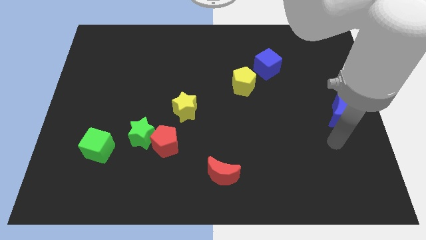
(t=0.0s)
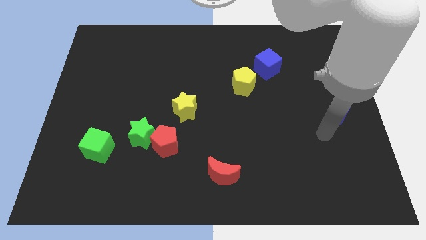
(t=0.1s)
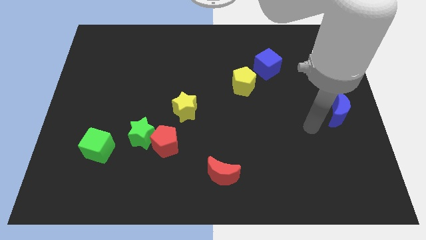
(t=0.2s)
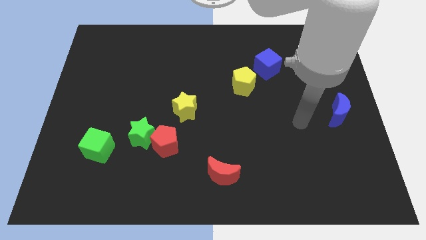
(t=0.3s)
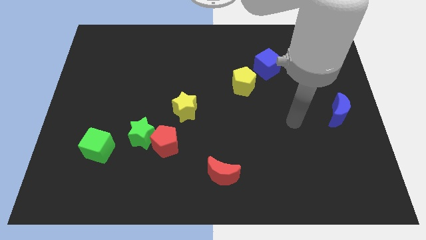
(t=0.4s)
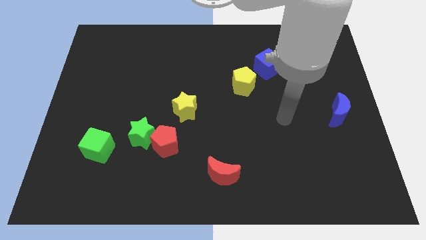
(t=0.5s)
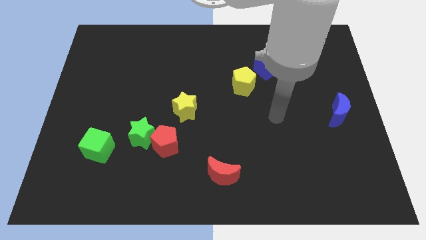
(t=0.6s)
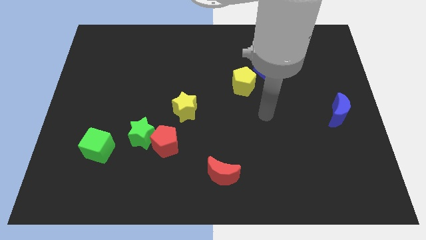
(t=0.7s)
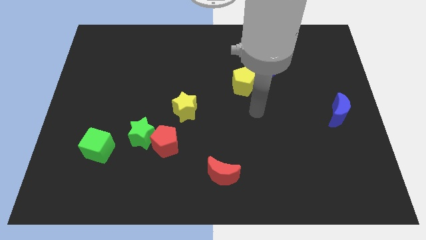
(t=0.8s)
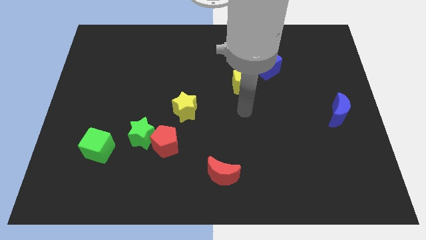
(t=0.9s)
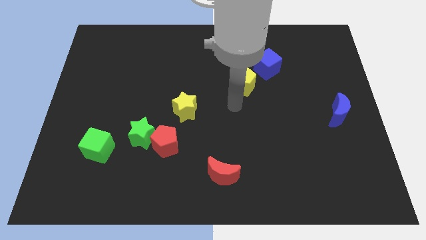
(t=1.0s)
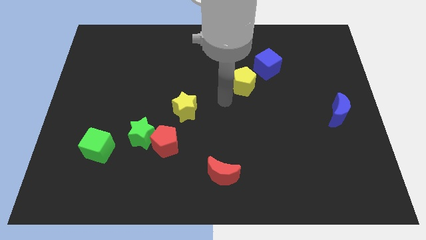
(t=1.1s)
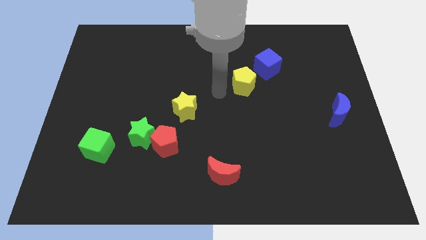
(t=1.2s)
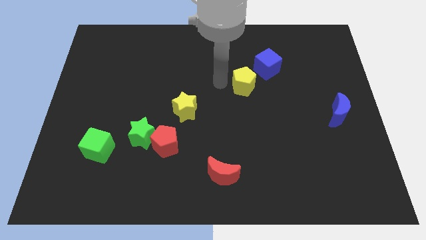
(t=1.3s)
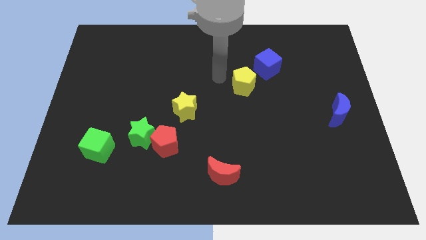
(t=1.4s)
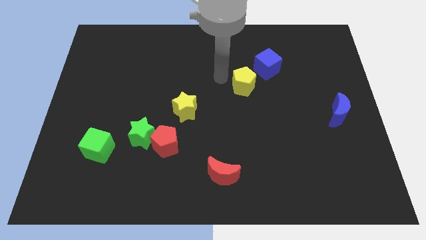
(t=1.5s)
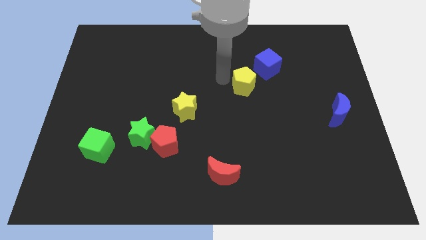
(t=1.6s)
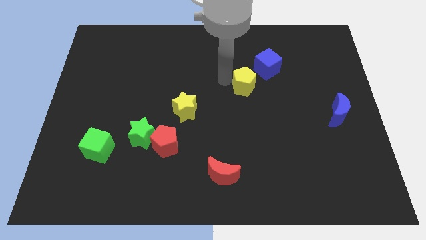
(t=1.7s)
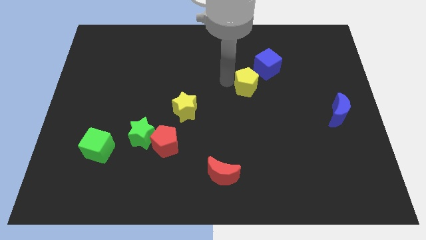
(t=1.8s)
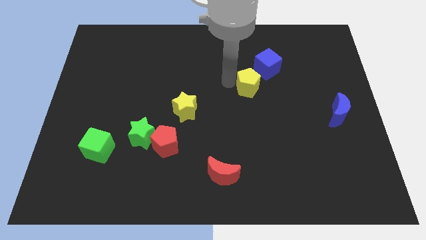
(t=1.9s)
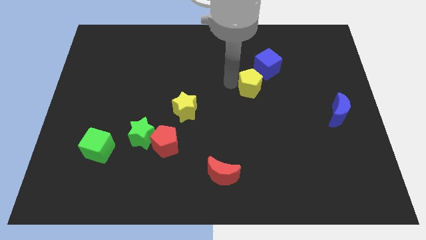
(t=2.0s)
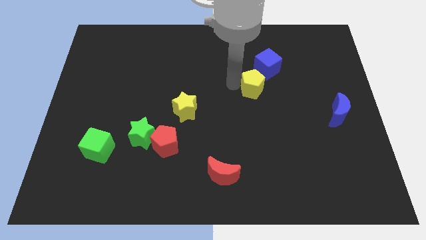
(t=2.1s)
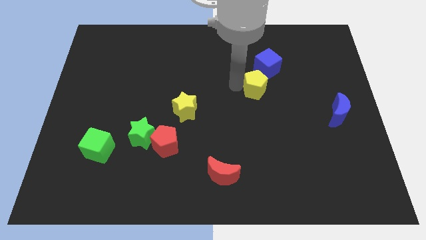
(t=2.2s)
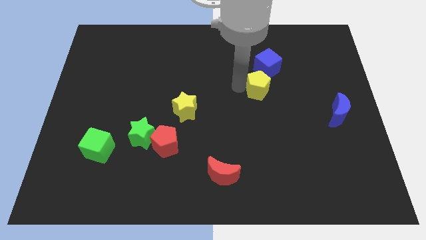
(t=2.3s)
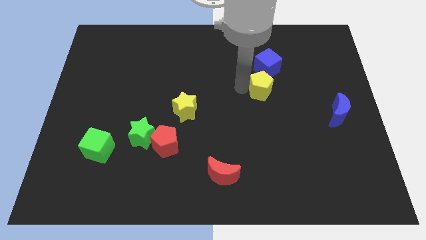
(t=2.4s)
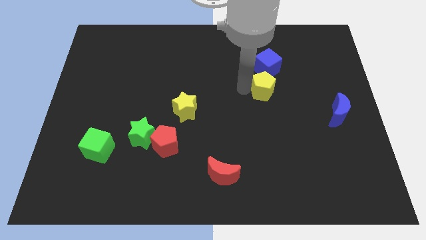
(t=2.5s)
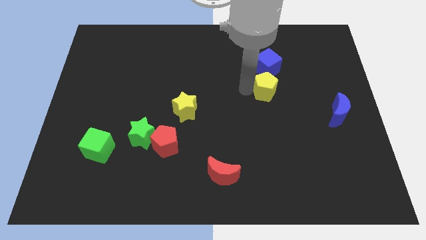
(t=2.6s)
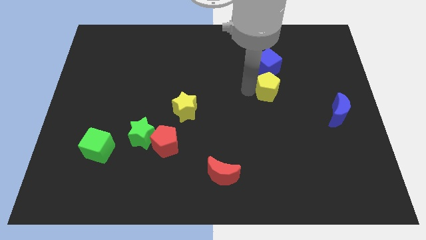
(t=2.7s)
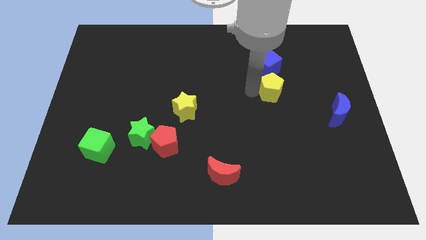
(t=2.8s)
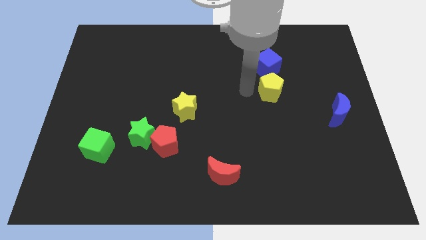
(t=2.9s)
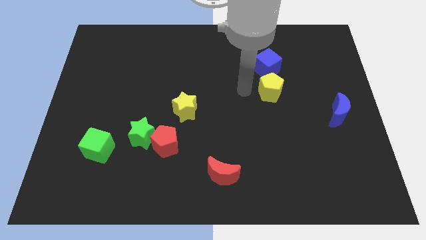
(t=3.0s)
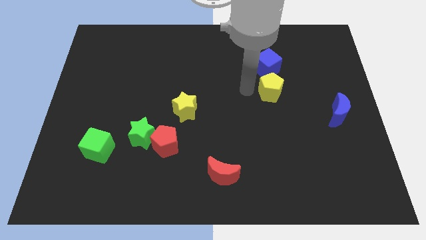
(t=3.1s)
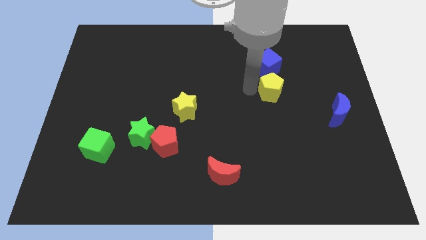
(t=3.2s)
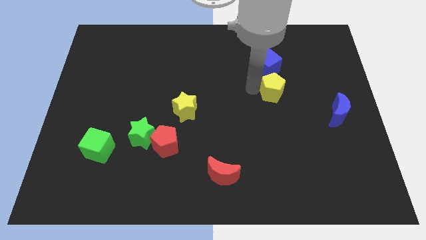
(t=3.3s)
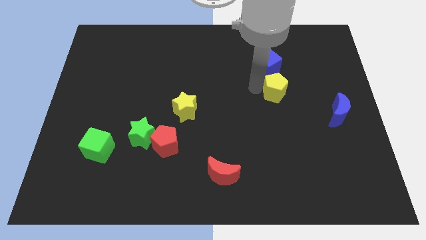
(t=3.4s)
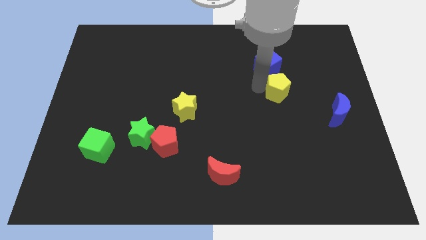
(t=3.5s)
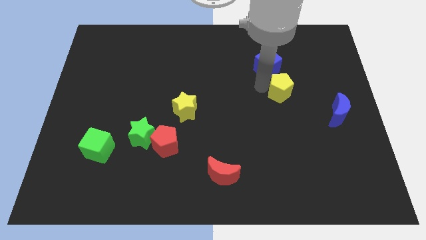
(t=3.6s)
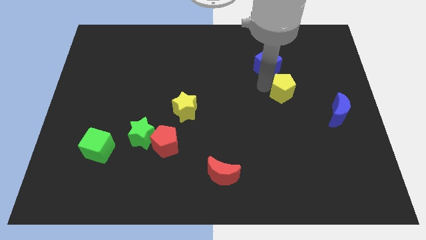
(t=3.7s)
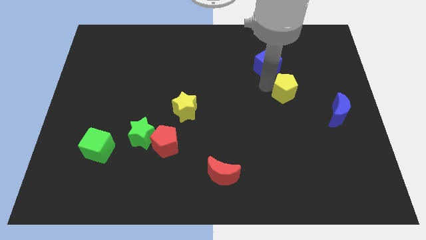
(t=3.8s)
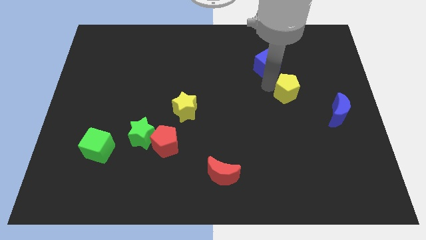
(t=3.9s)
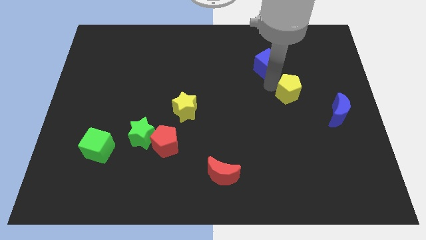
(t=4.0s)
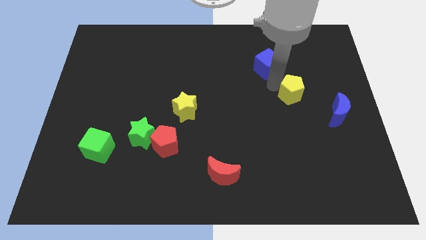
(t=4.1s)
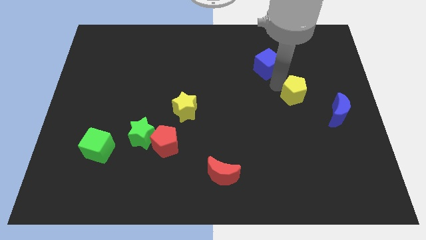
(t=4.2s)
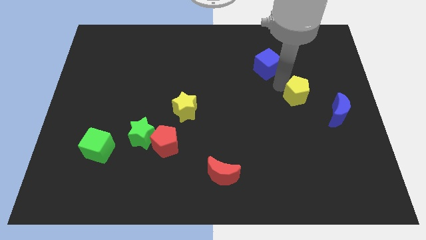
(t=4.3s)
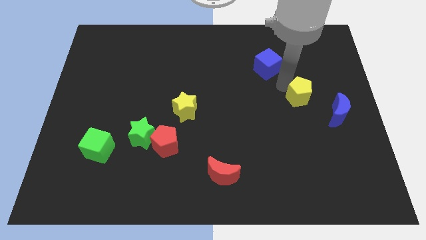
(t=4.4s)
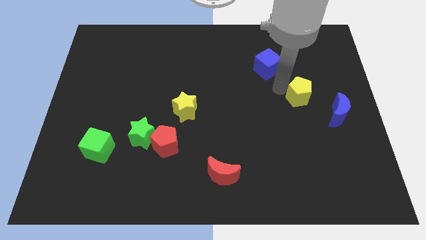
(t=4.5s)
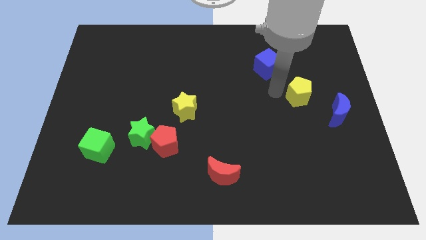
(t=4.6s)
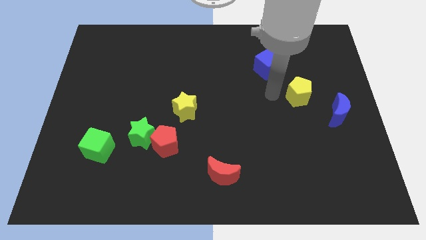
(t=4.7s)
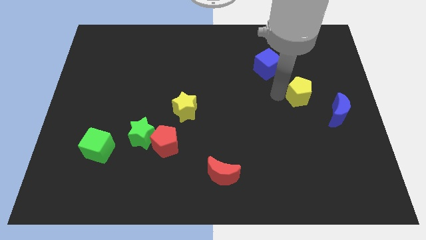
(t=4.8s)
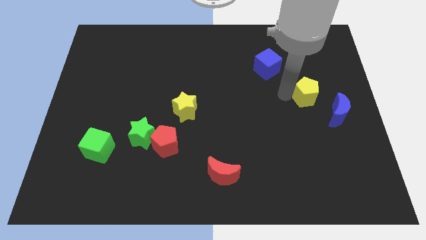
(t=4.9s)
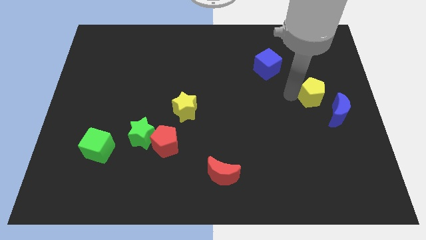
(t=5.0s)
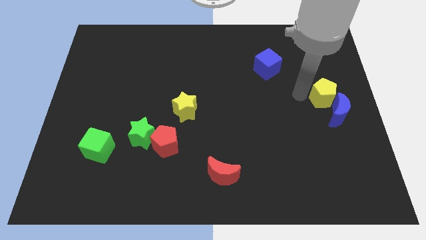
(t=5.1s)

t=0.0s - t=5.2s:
put the yellow pentagon to the center right

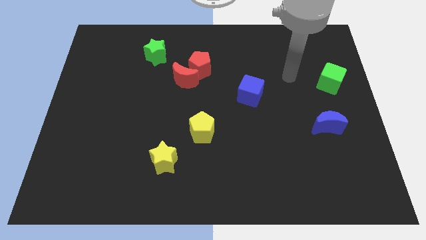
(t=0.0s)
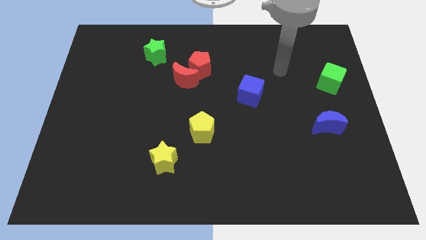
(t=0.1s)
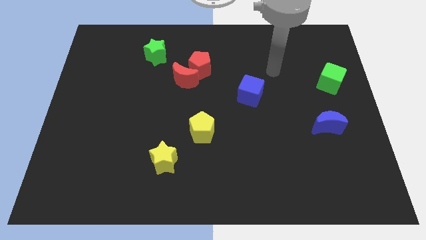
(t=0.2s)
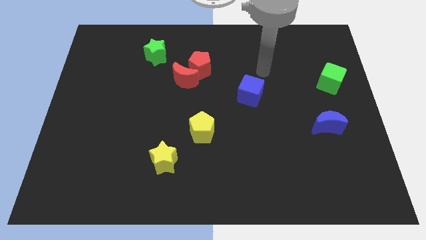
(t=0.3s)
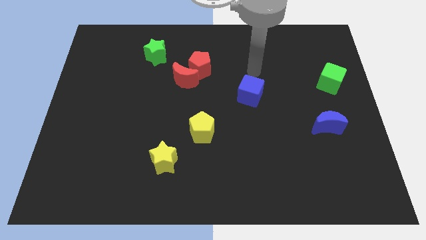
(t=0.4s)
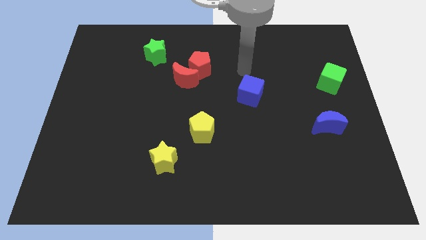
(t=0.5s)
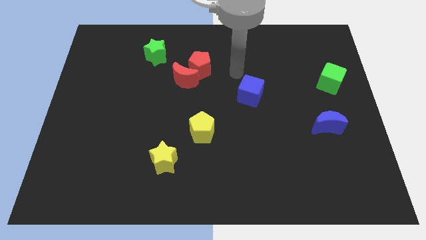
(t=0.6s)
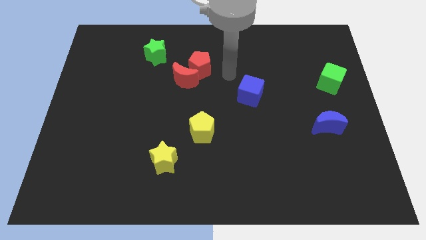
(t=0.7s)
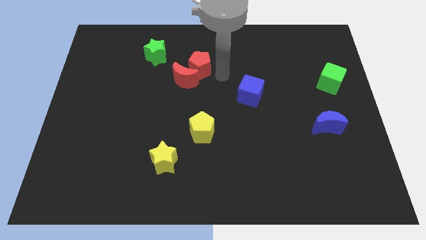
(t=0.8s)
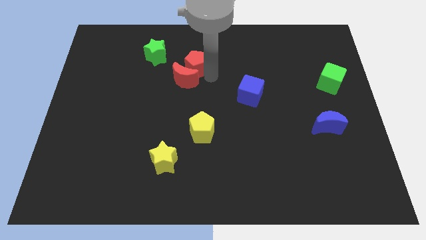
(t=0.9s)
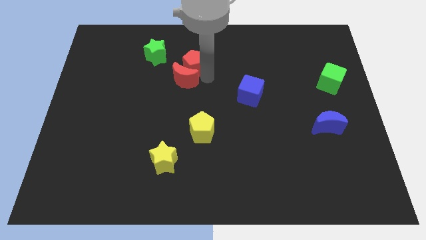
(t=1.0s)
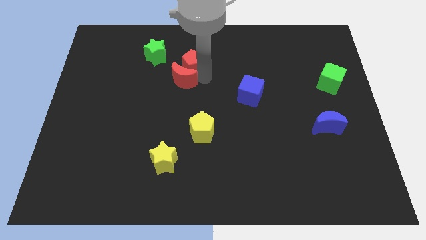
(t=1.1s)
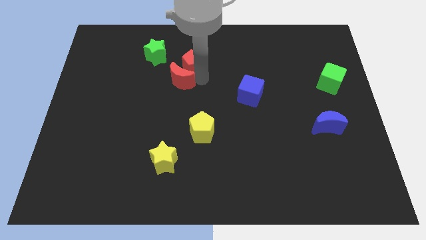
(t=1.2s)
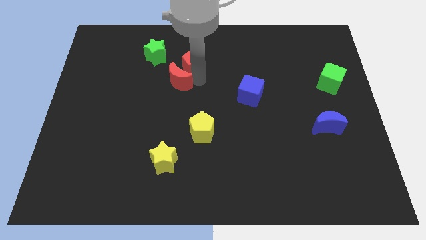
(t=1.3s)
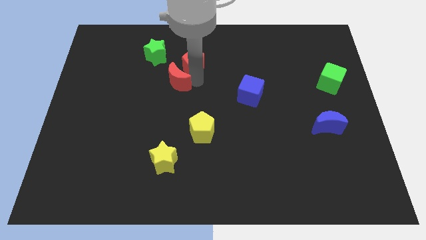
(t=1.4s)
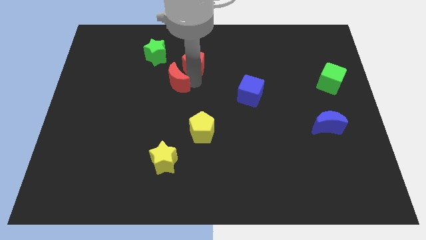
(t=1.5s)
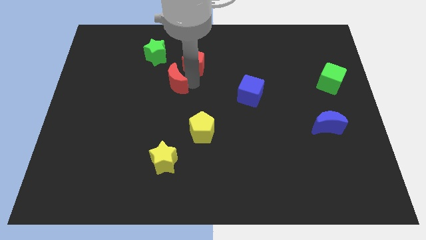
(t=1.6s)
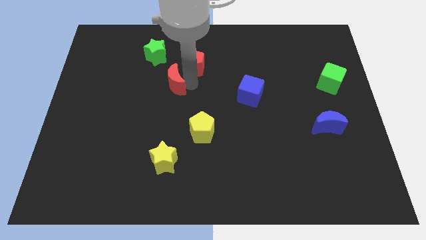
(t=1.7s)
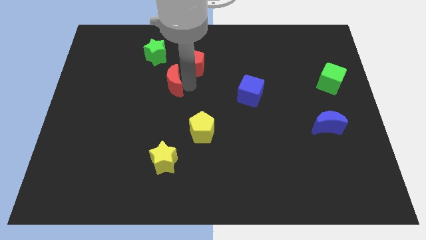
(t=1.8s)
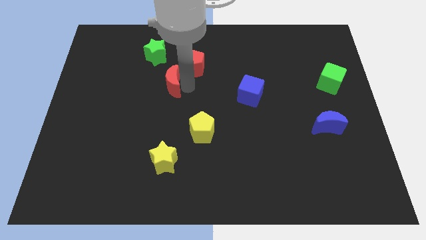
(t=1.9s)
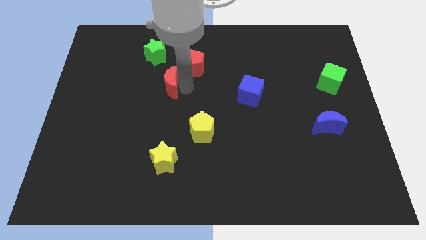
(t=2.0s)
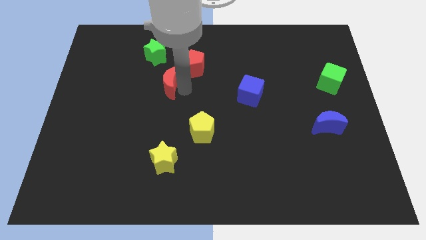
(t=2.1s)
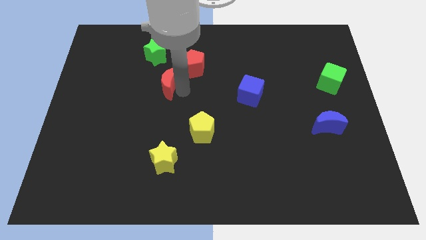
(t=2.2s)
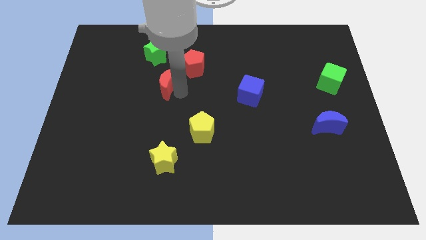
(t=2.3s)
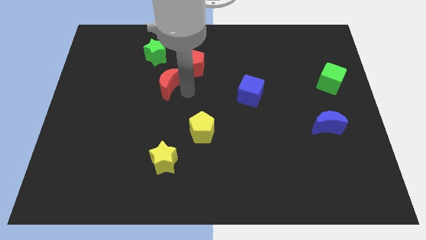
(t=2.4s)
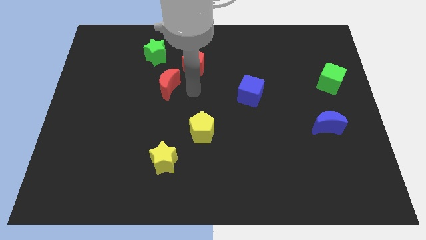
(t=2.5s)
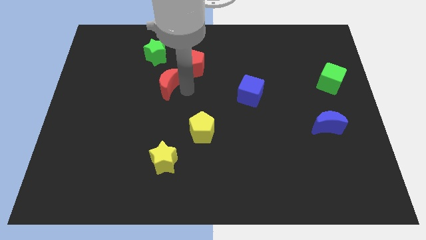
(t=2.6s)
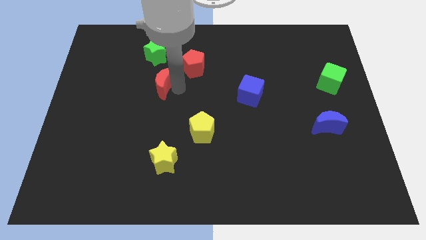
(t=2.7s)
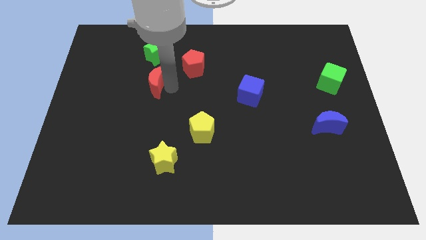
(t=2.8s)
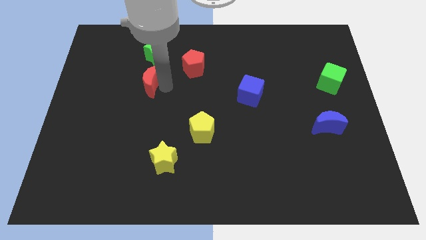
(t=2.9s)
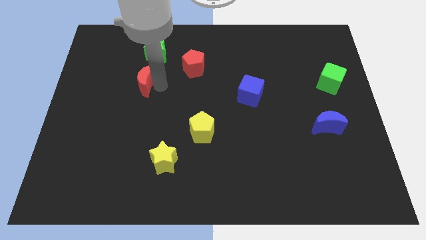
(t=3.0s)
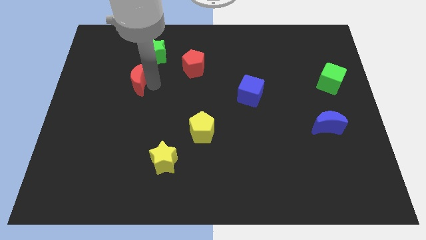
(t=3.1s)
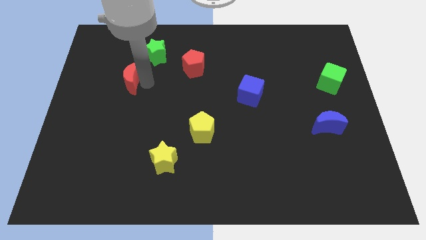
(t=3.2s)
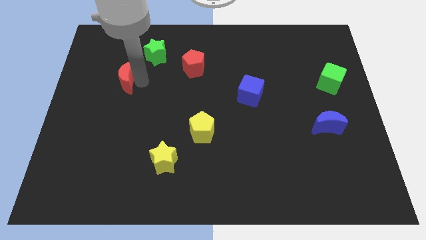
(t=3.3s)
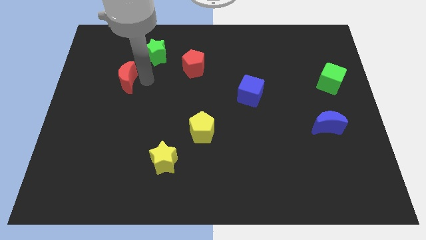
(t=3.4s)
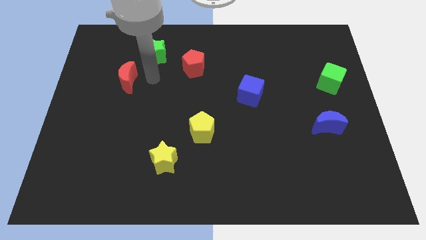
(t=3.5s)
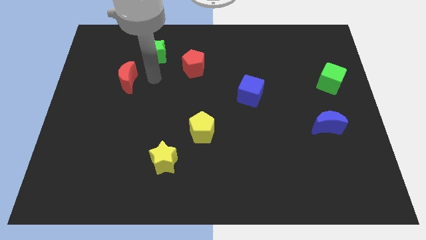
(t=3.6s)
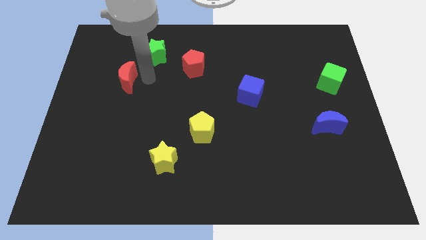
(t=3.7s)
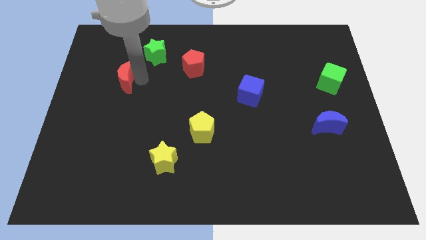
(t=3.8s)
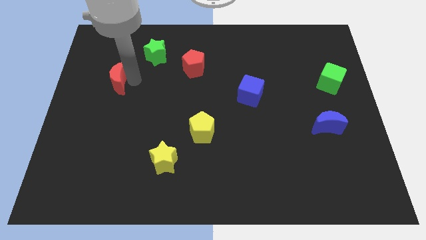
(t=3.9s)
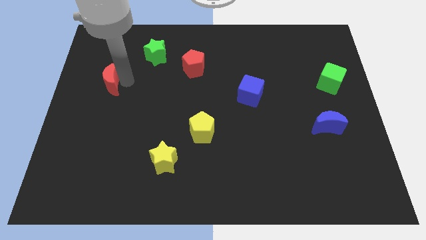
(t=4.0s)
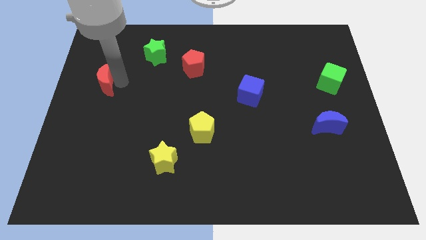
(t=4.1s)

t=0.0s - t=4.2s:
push the red moon to the left side of the board
